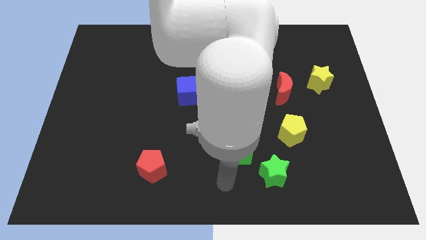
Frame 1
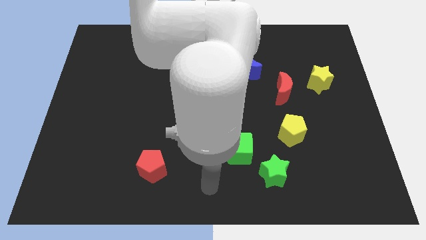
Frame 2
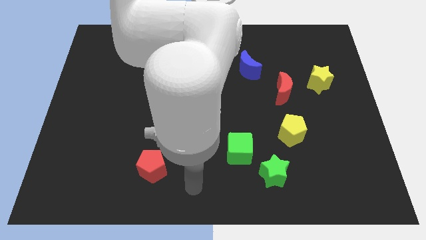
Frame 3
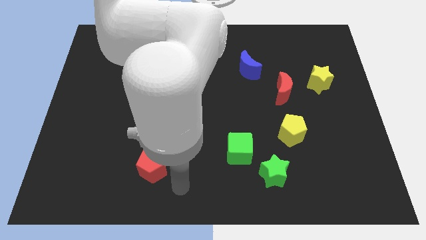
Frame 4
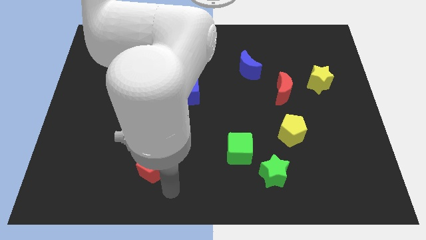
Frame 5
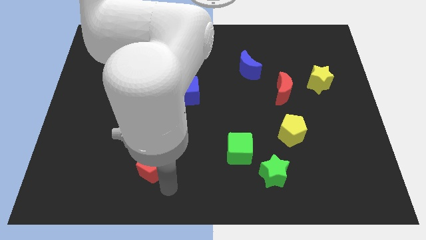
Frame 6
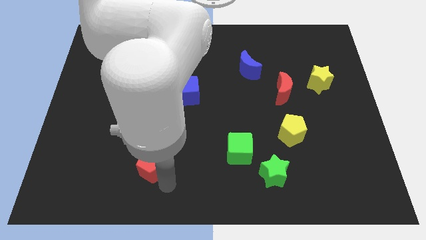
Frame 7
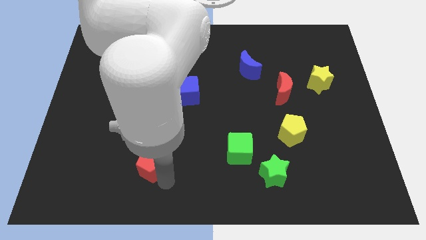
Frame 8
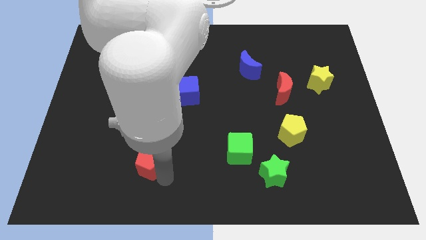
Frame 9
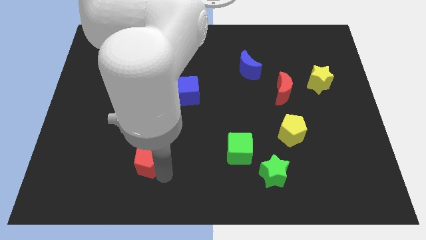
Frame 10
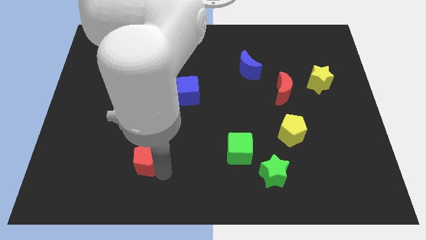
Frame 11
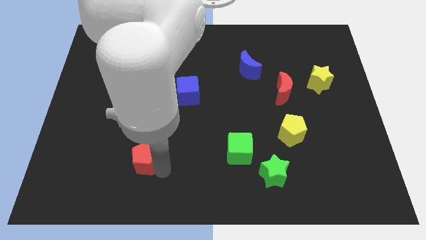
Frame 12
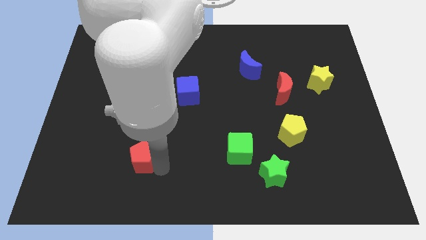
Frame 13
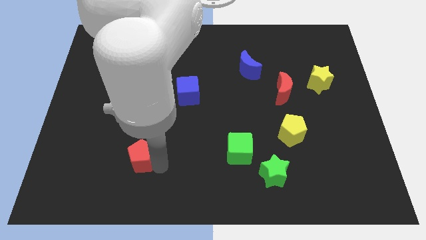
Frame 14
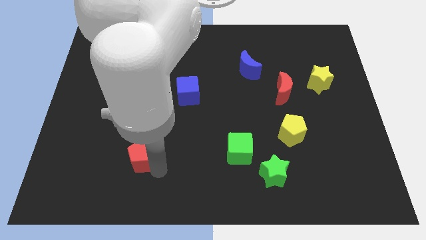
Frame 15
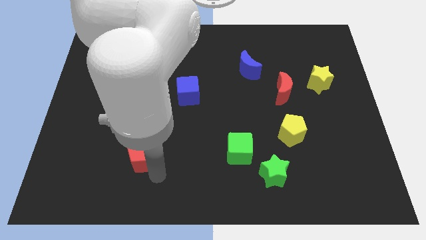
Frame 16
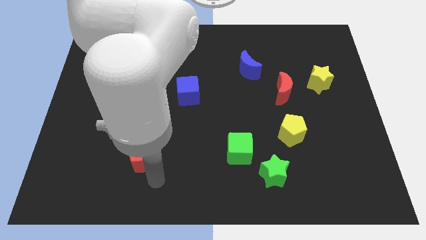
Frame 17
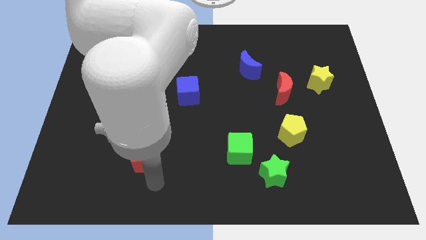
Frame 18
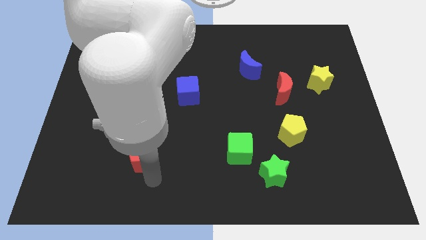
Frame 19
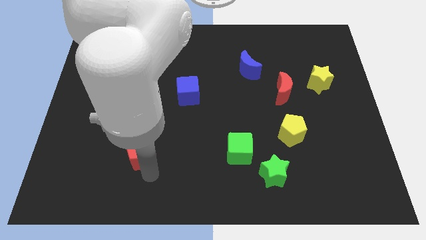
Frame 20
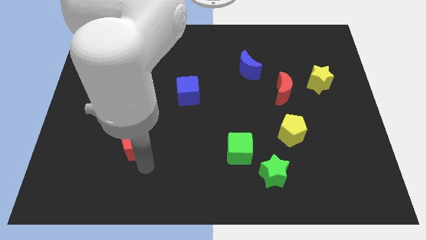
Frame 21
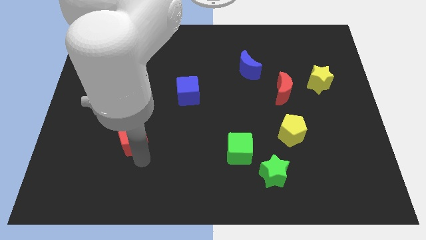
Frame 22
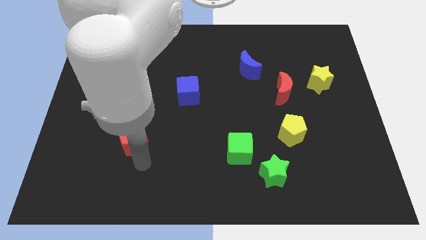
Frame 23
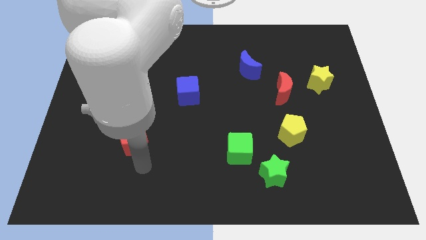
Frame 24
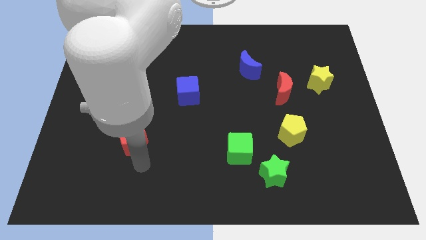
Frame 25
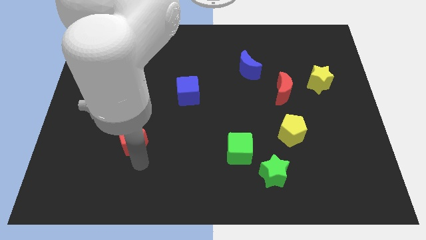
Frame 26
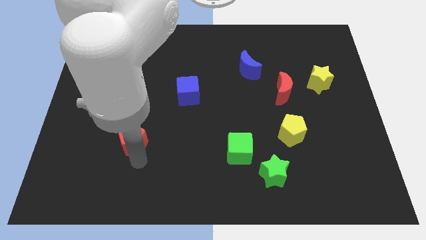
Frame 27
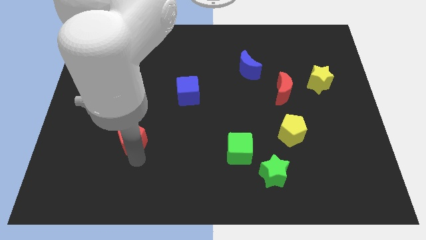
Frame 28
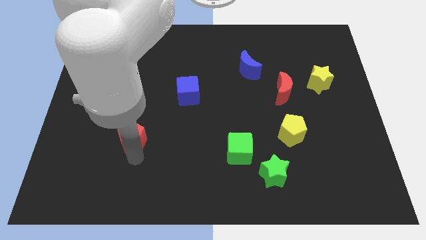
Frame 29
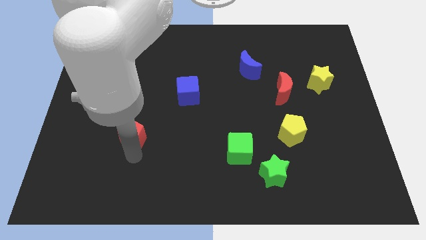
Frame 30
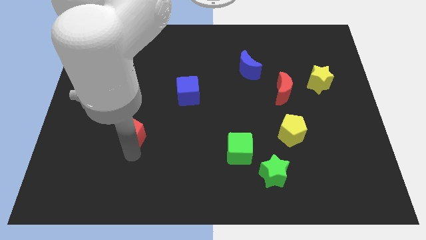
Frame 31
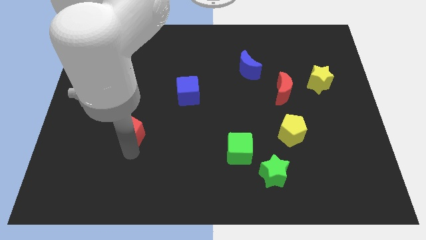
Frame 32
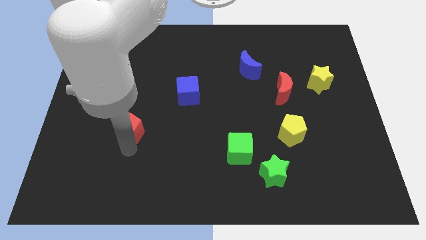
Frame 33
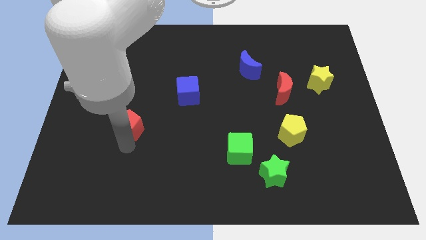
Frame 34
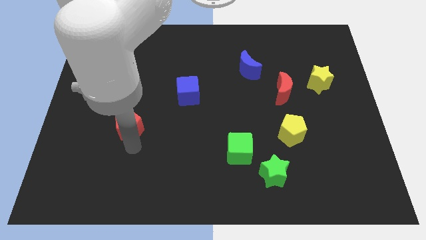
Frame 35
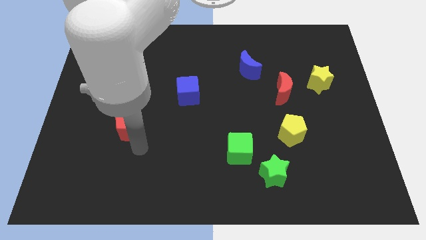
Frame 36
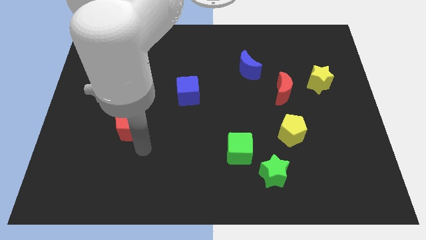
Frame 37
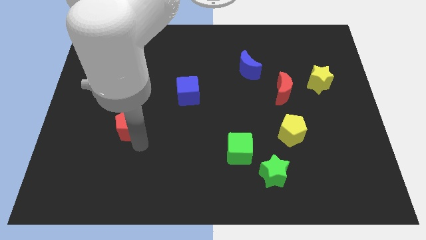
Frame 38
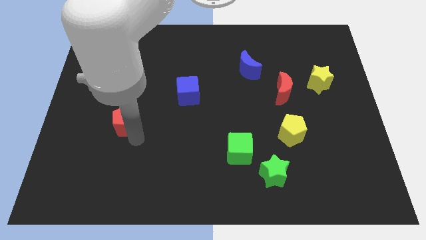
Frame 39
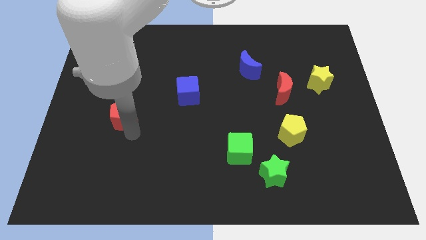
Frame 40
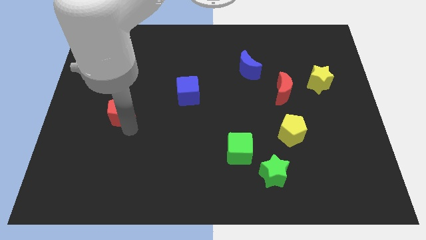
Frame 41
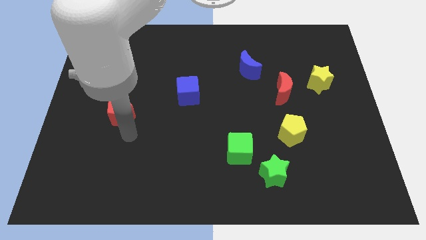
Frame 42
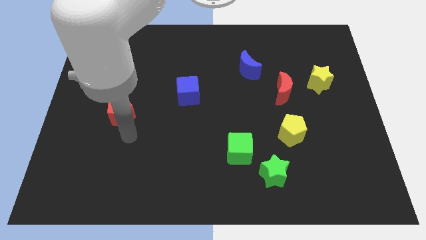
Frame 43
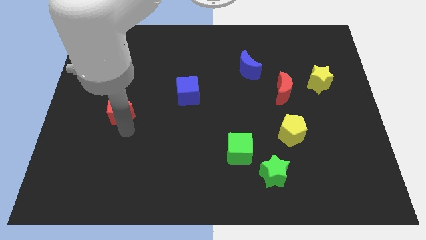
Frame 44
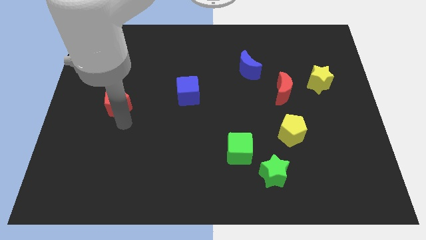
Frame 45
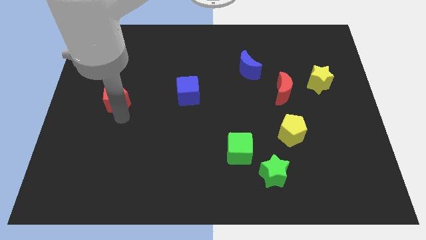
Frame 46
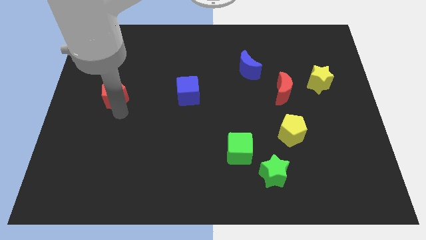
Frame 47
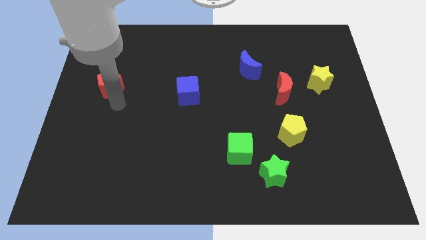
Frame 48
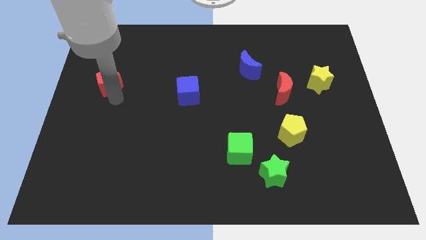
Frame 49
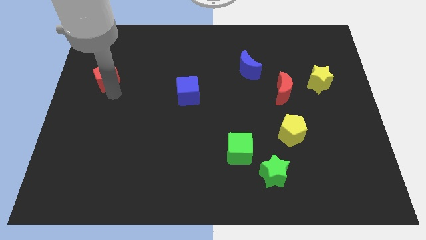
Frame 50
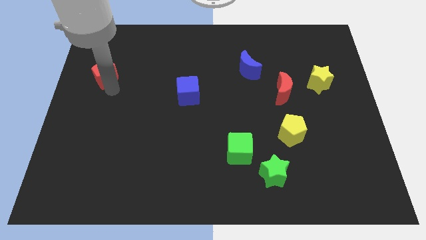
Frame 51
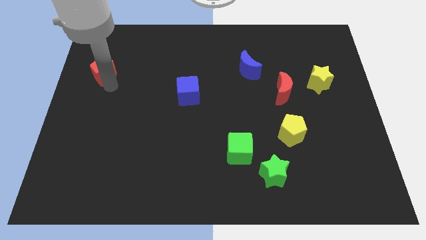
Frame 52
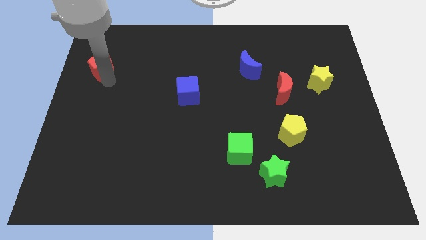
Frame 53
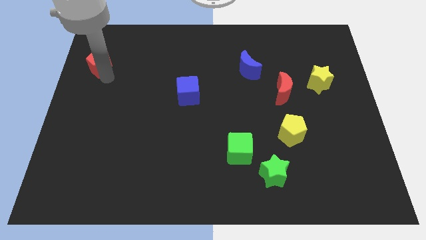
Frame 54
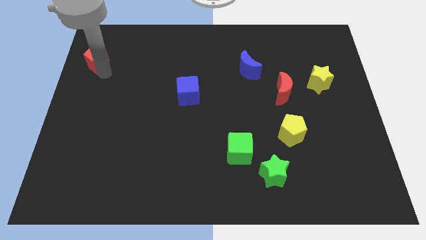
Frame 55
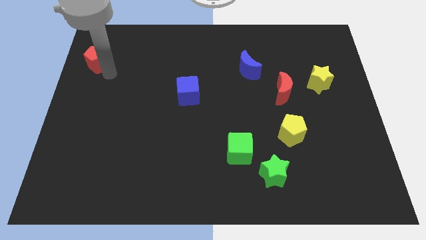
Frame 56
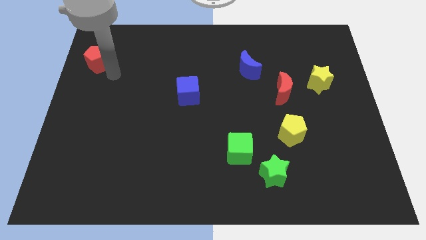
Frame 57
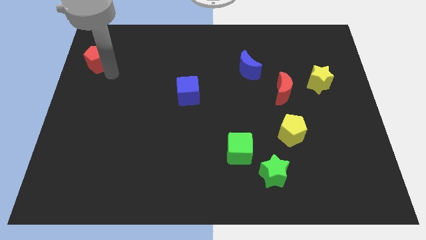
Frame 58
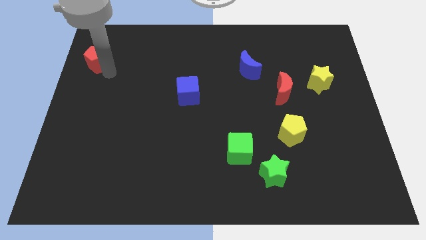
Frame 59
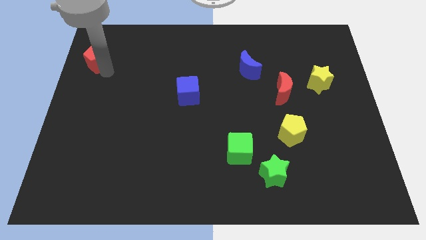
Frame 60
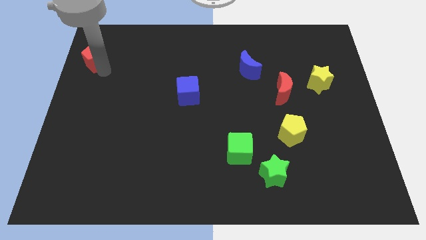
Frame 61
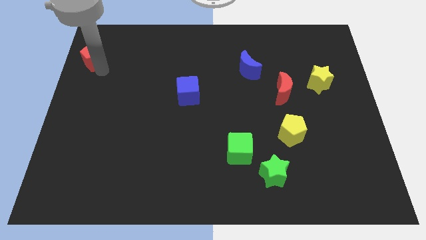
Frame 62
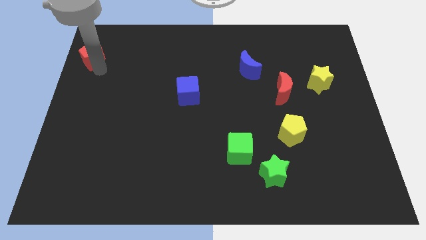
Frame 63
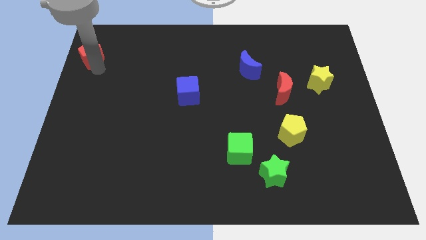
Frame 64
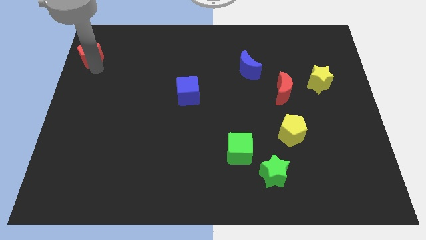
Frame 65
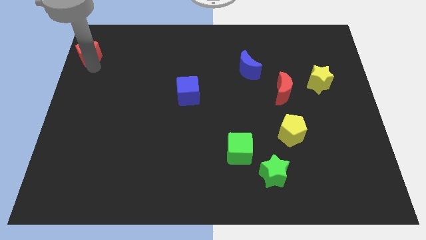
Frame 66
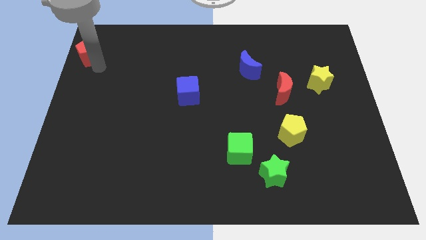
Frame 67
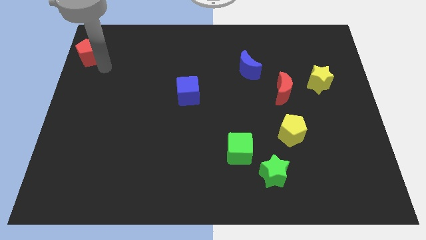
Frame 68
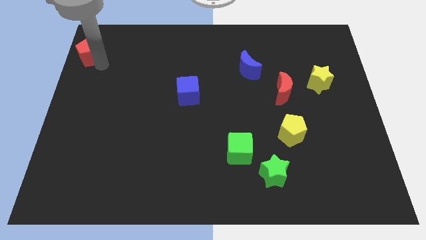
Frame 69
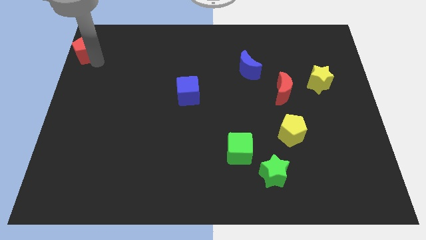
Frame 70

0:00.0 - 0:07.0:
push the red pentagon to the top left corner
